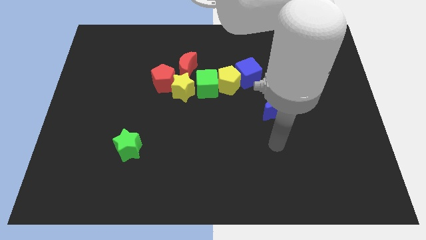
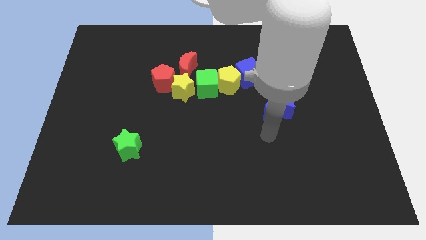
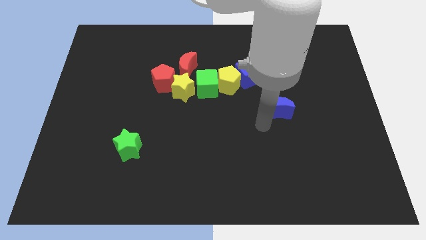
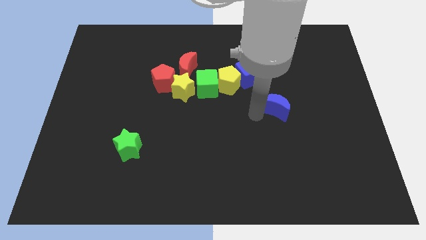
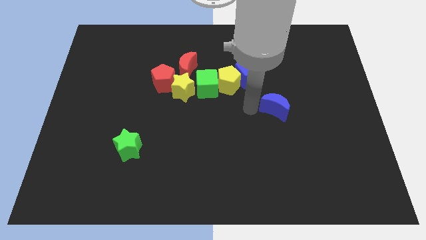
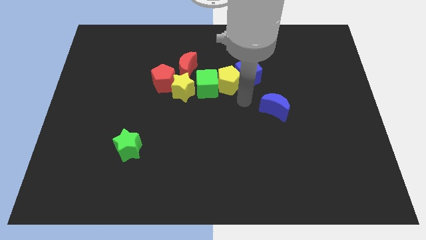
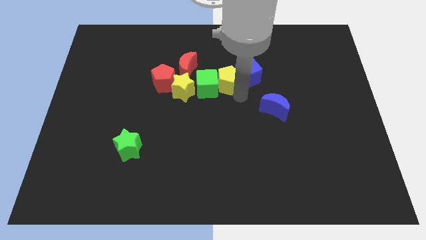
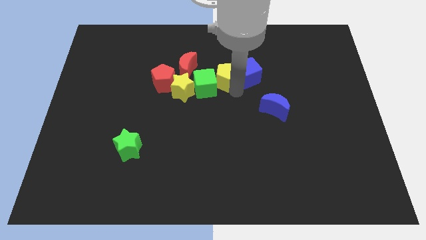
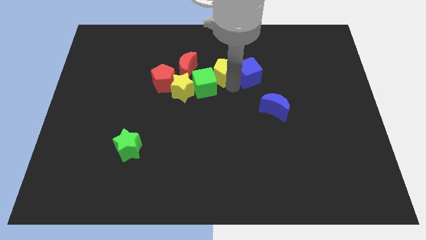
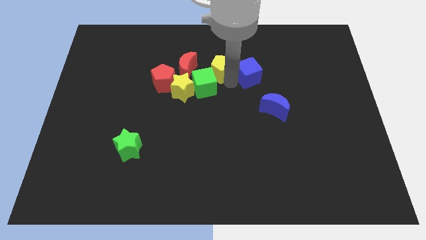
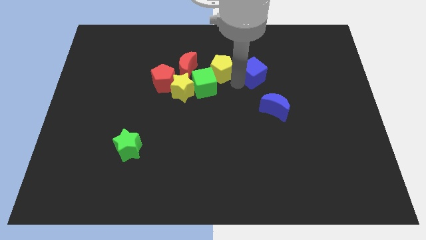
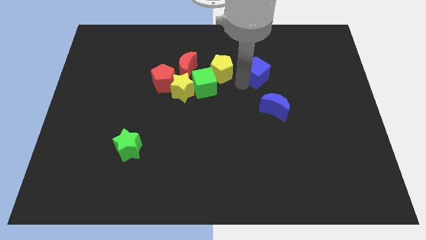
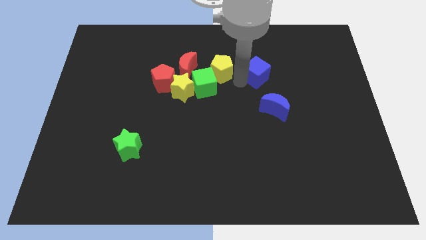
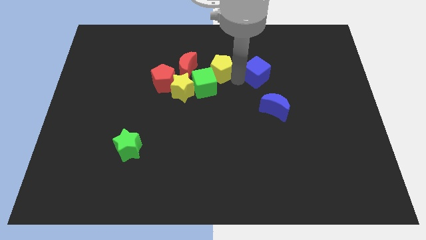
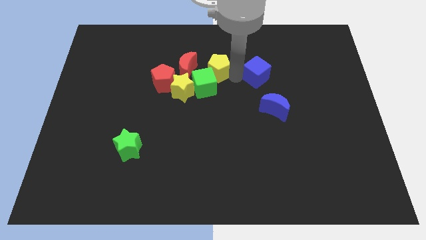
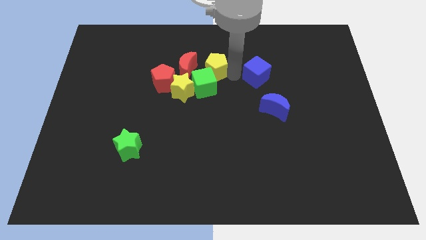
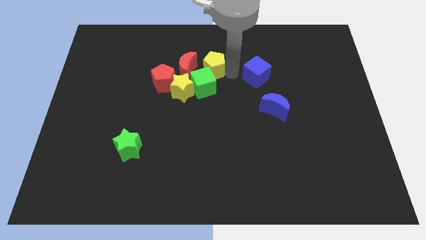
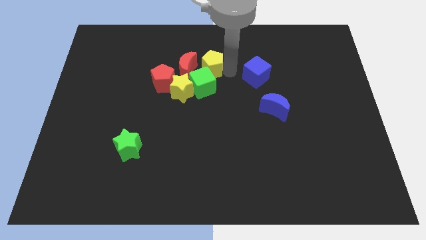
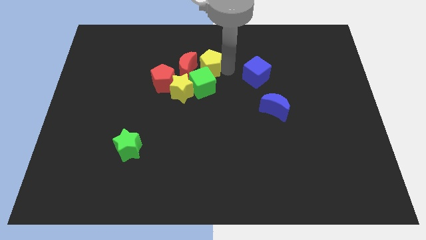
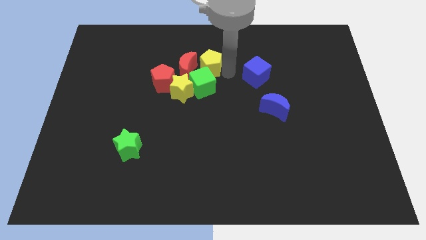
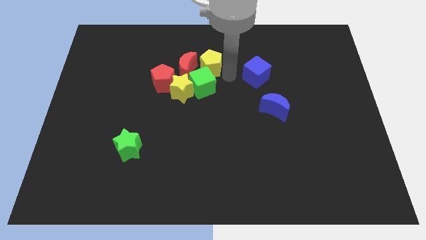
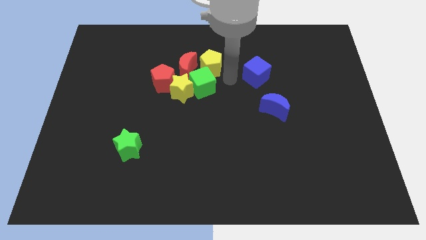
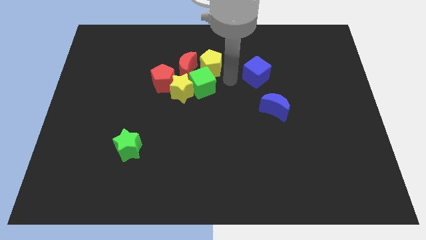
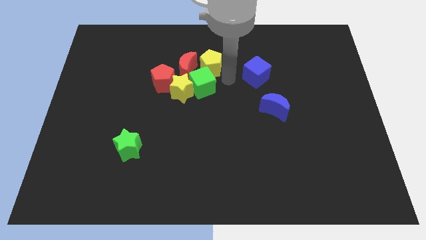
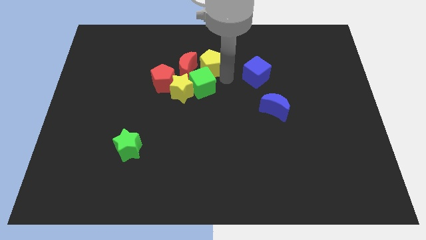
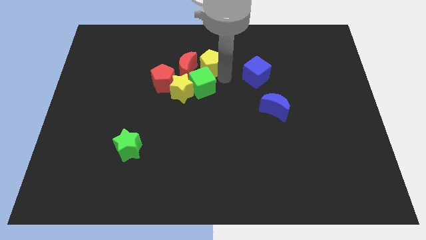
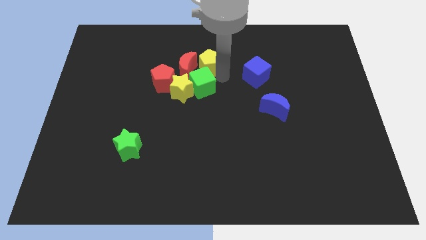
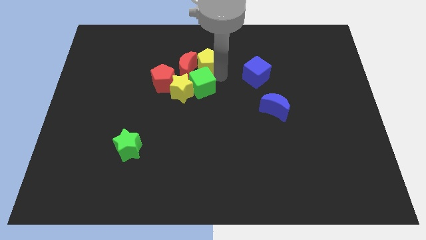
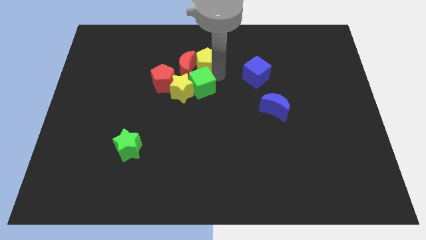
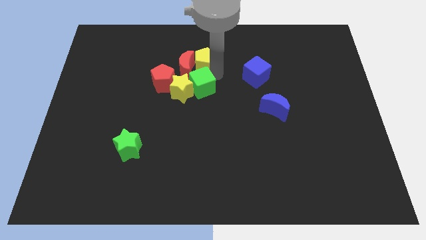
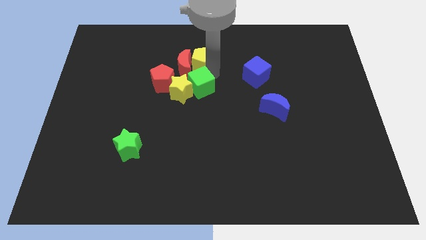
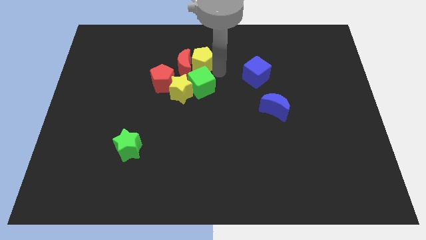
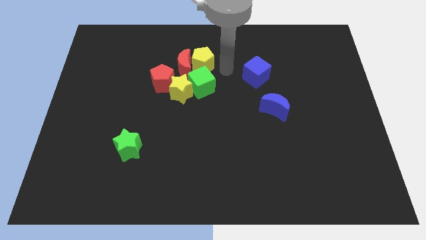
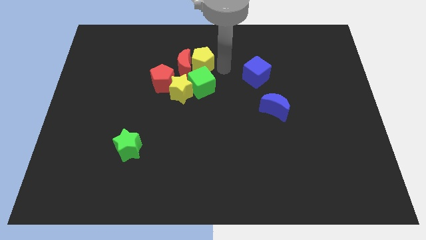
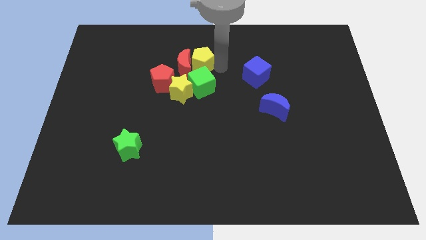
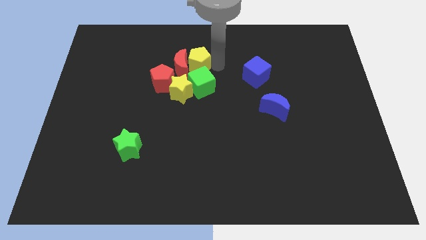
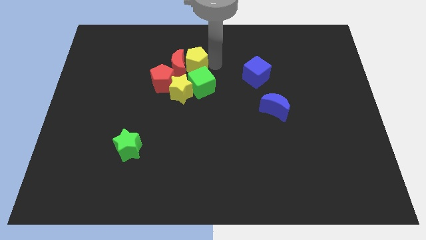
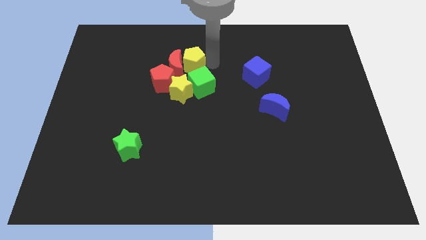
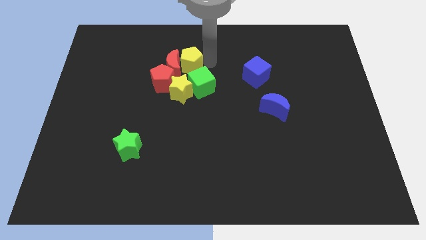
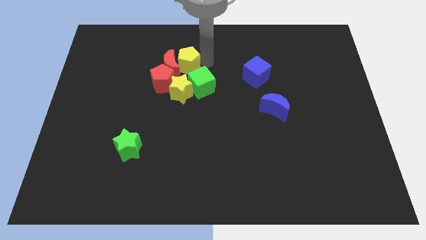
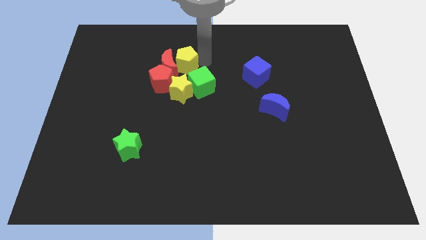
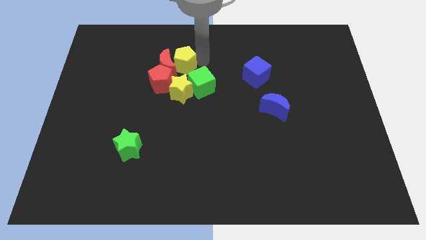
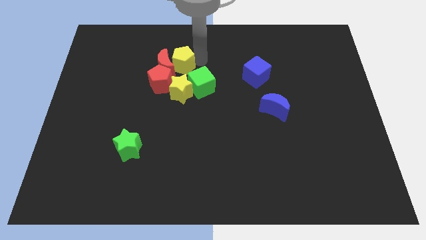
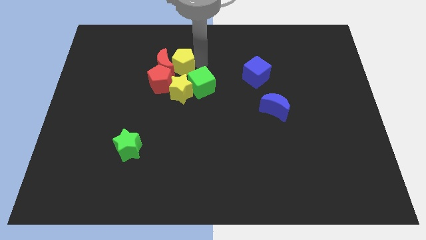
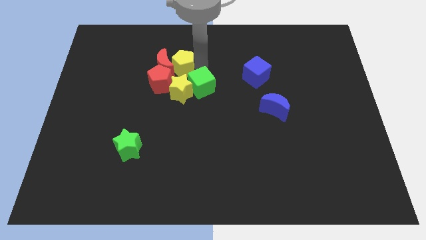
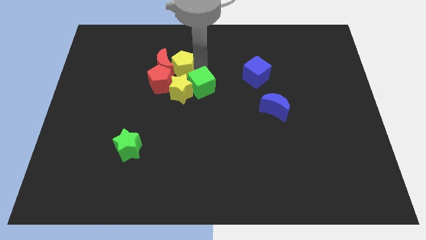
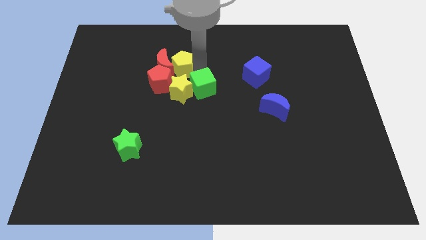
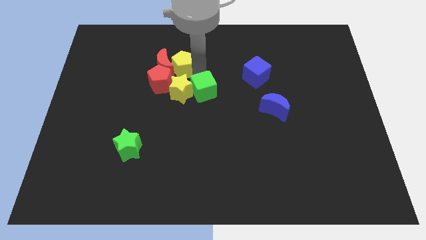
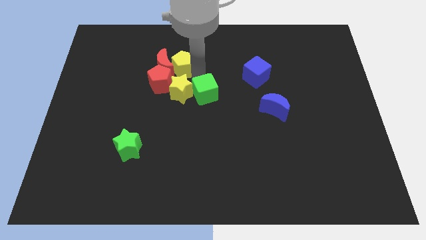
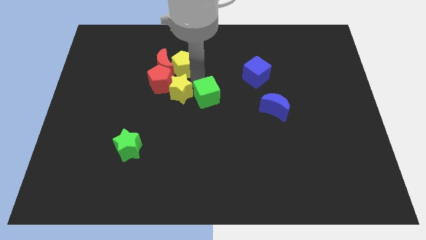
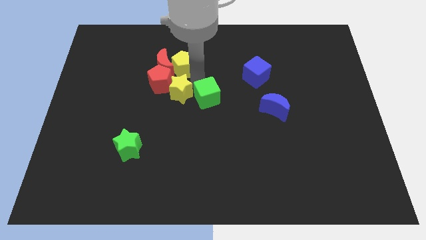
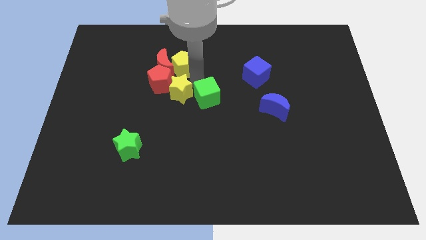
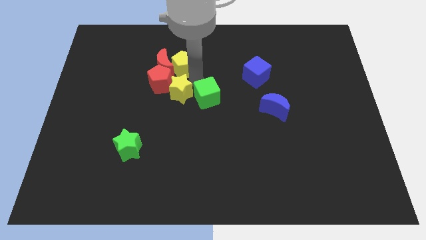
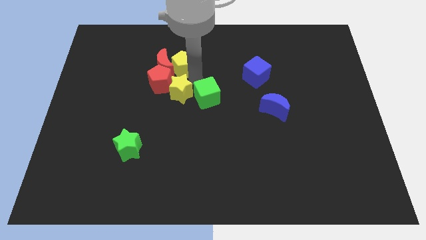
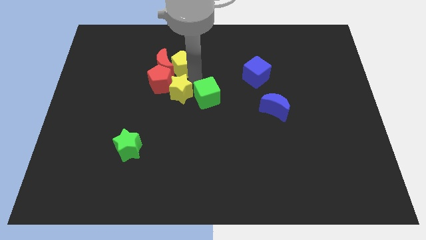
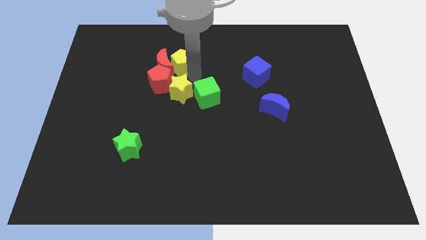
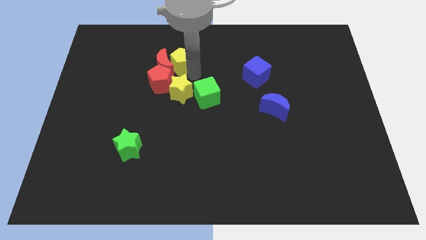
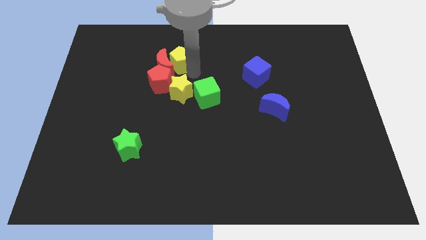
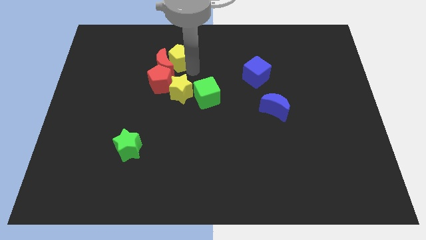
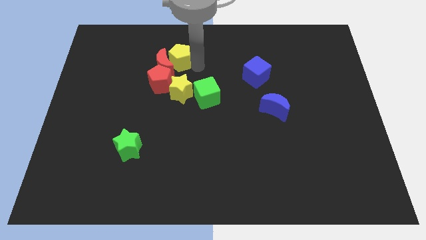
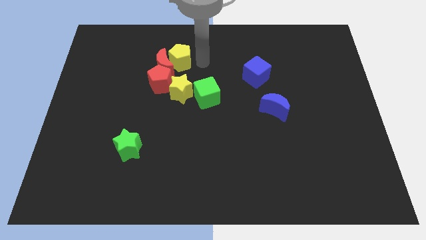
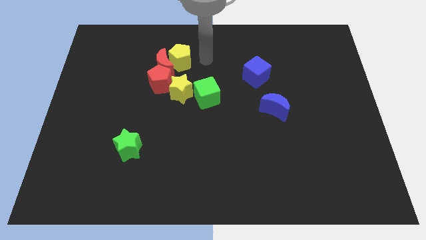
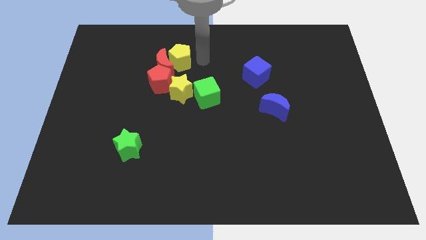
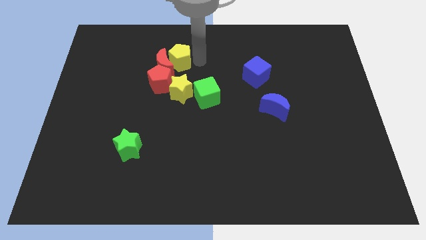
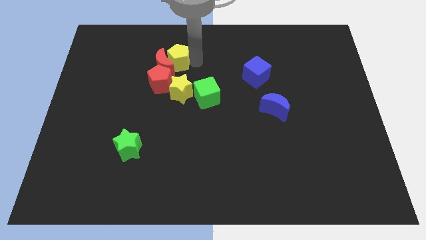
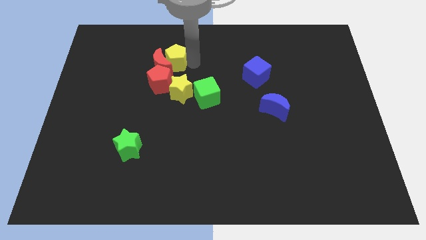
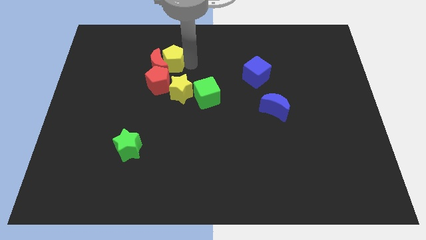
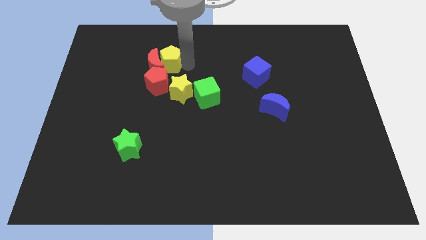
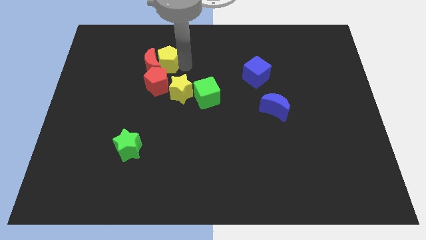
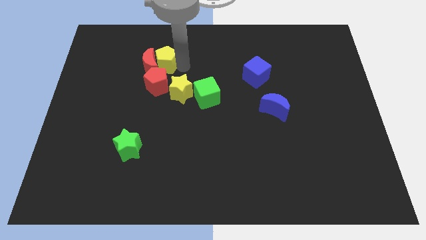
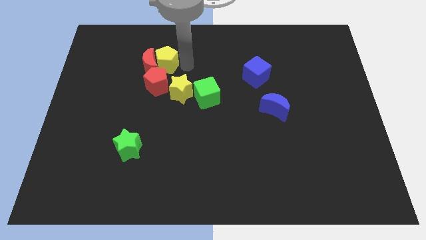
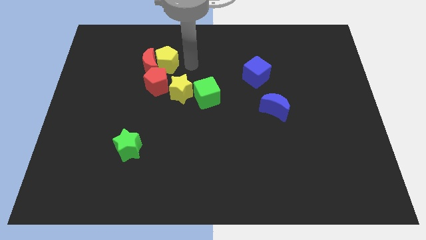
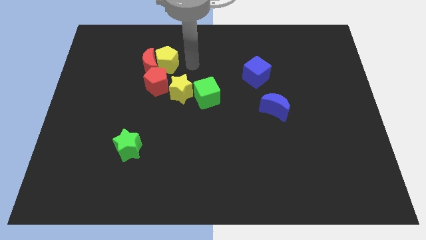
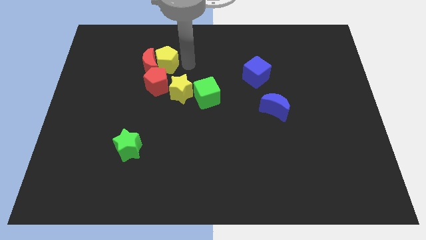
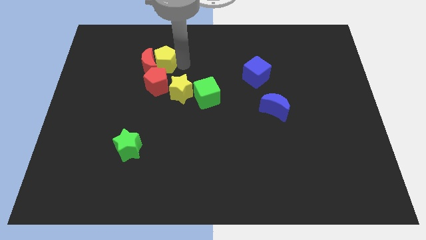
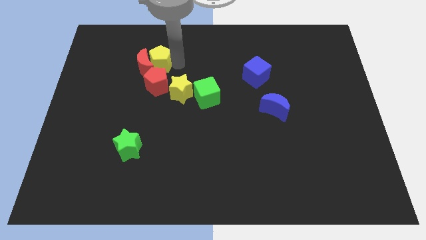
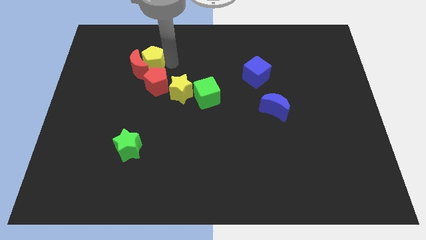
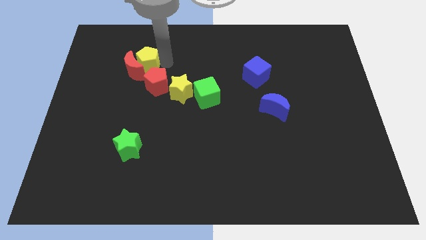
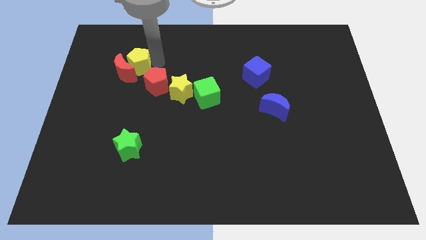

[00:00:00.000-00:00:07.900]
slide the yellow pentagon left

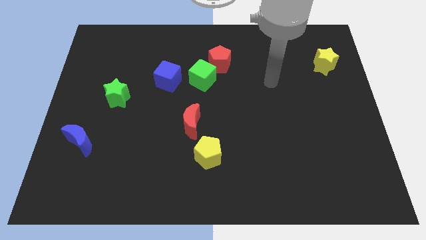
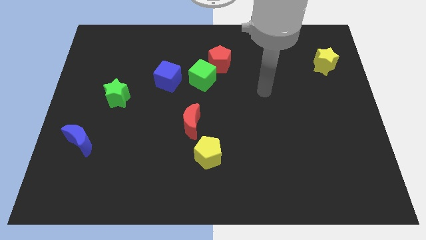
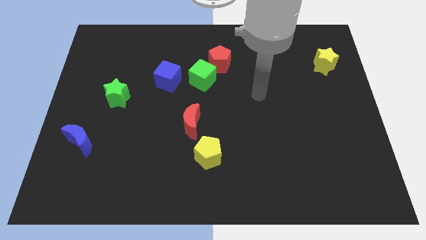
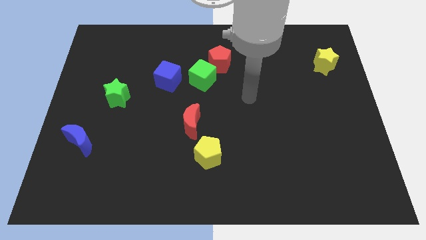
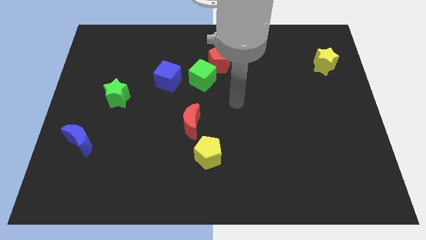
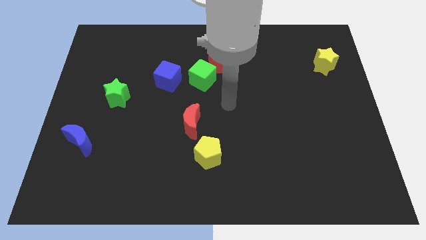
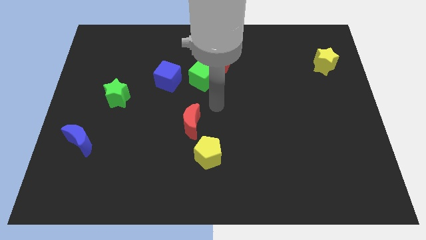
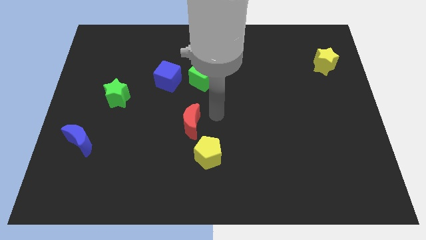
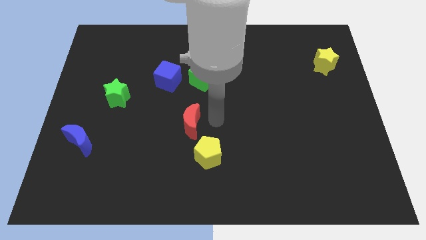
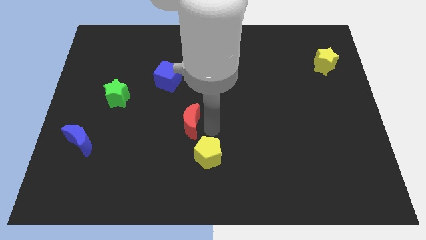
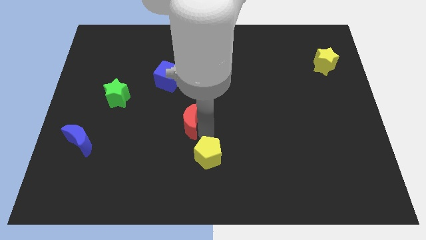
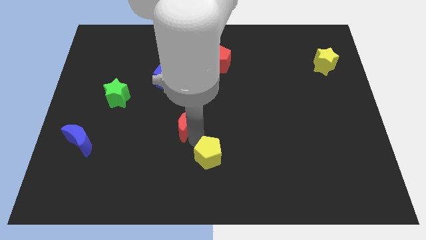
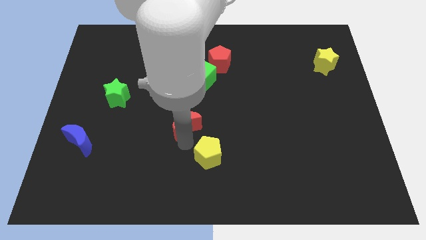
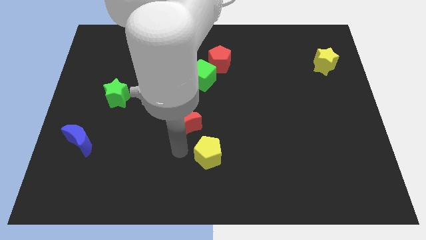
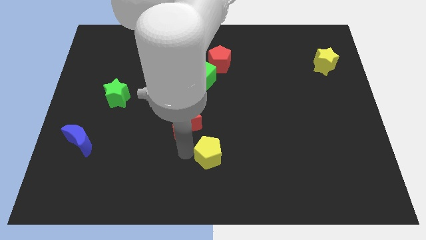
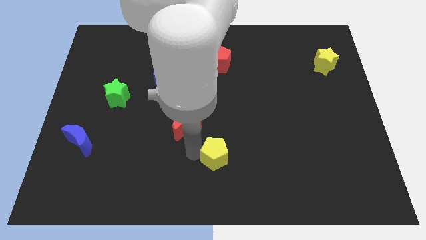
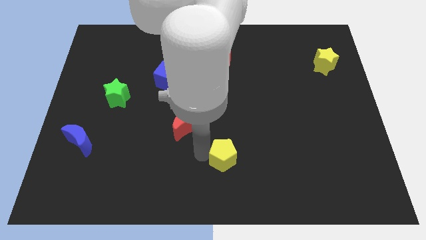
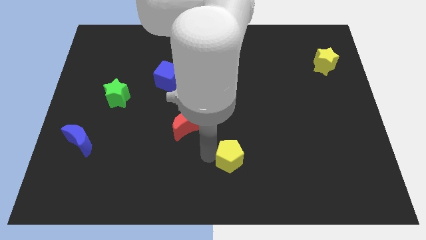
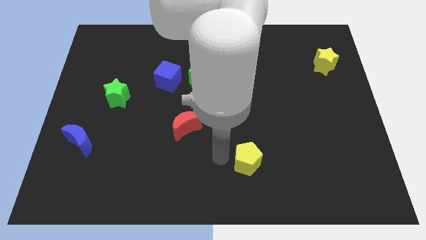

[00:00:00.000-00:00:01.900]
push the yellow pentagon right a little
